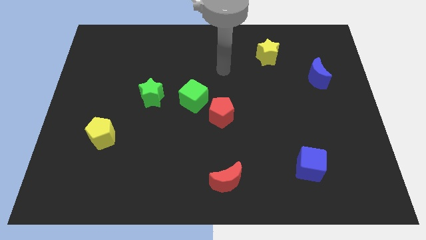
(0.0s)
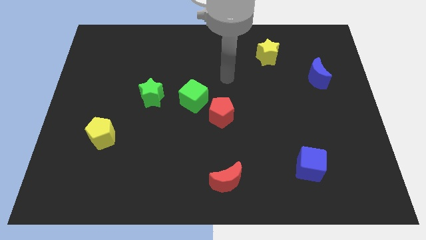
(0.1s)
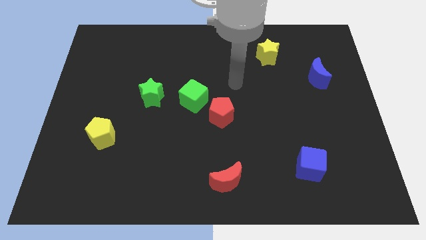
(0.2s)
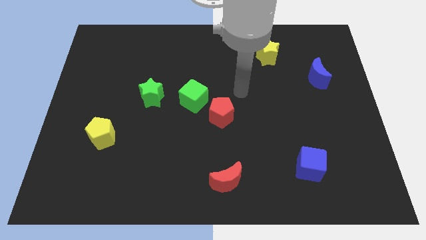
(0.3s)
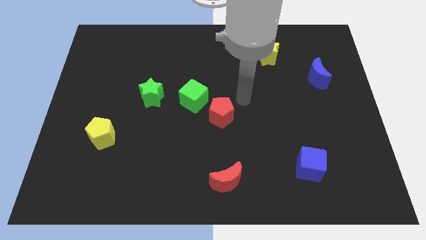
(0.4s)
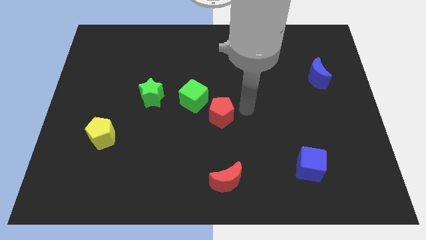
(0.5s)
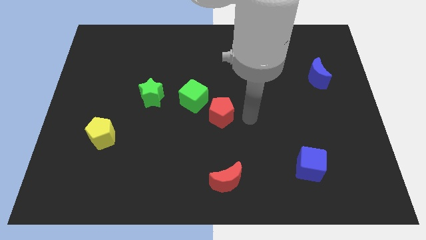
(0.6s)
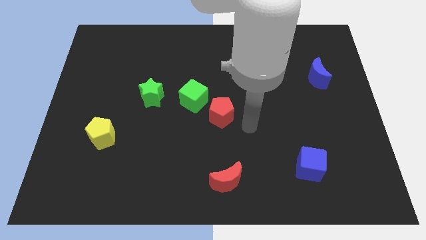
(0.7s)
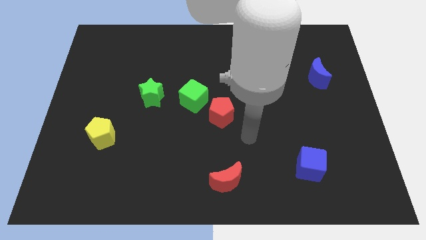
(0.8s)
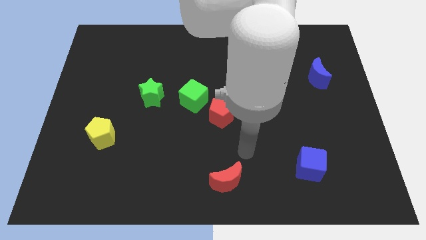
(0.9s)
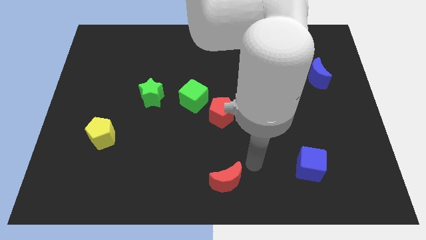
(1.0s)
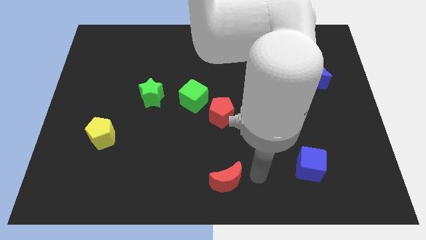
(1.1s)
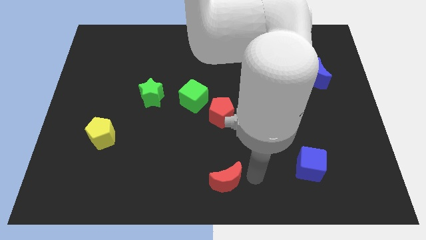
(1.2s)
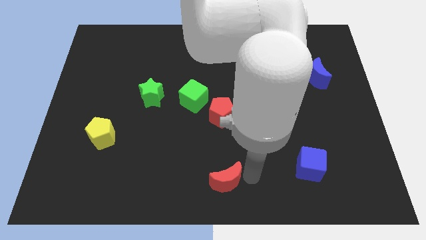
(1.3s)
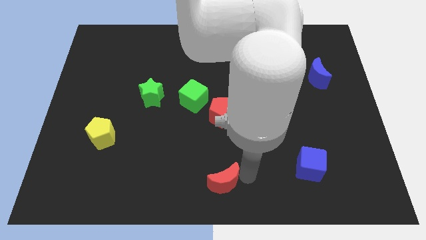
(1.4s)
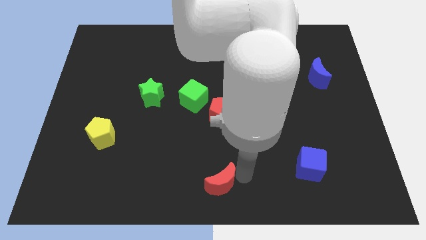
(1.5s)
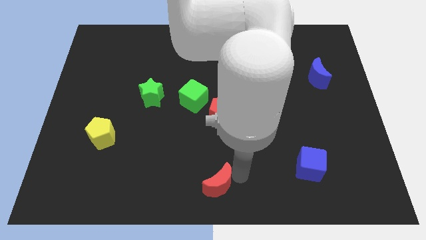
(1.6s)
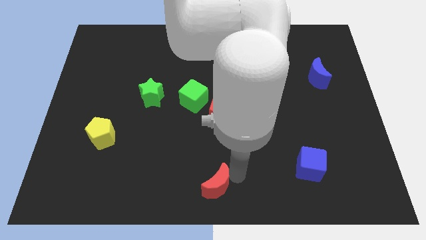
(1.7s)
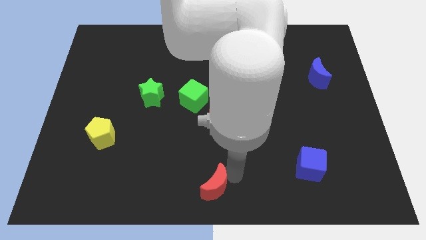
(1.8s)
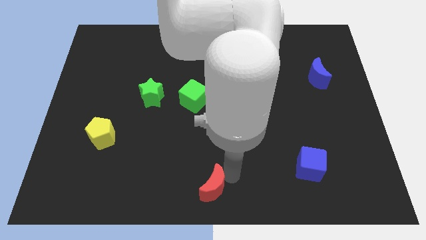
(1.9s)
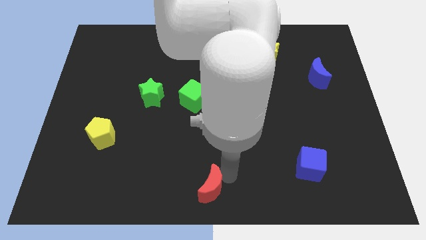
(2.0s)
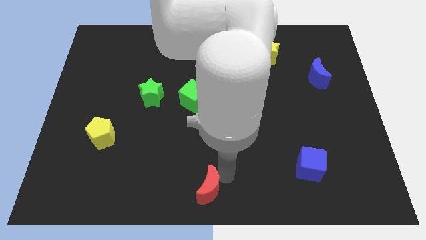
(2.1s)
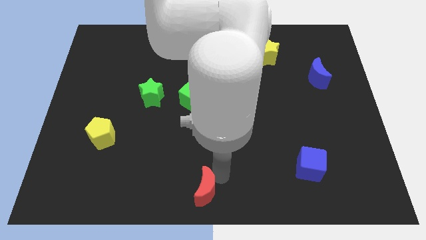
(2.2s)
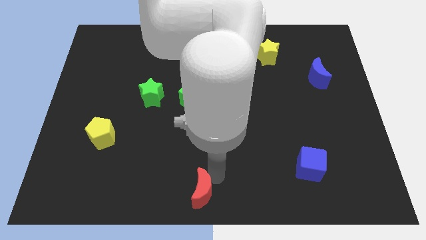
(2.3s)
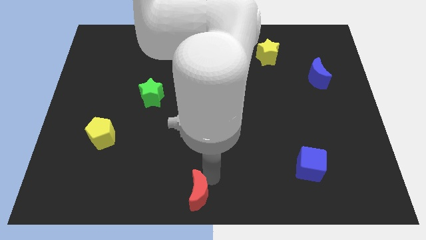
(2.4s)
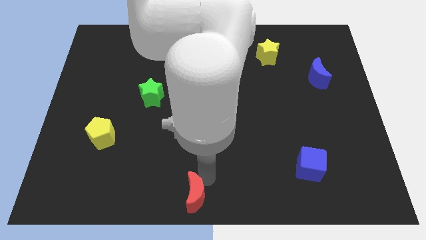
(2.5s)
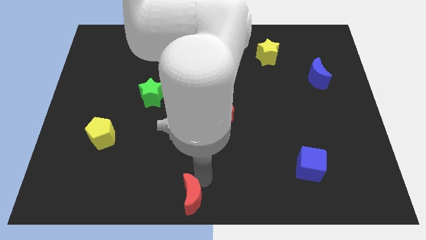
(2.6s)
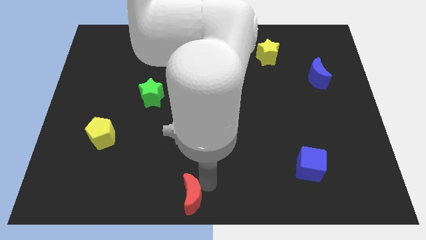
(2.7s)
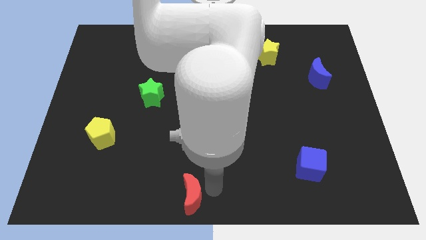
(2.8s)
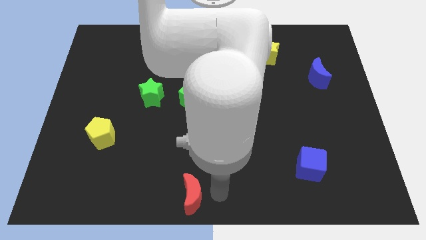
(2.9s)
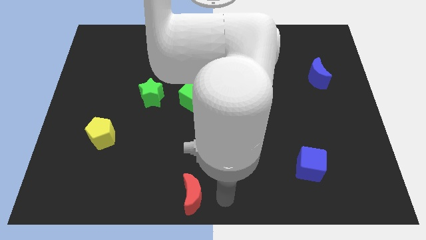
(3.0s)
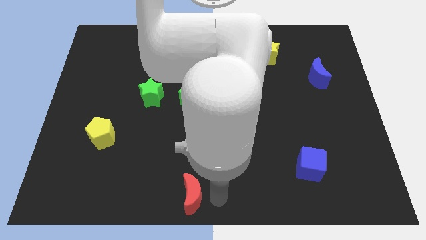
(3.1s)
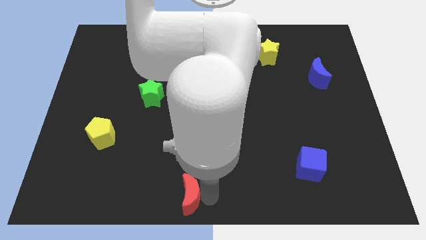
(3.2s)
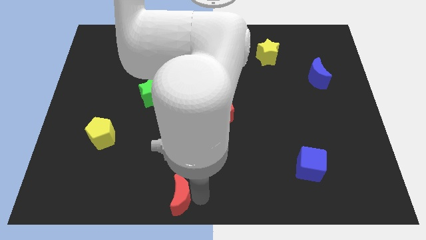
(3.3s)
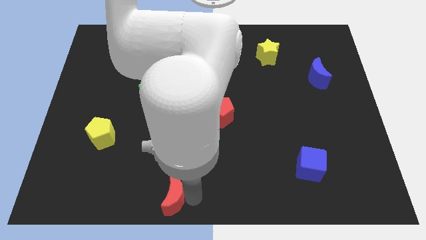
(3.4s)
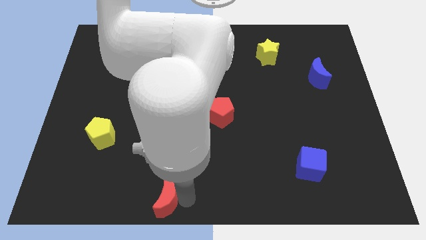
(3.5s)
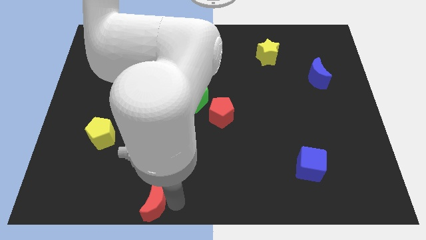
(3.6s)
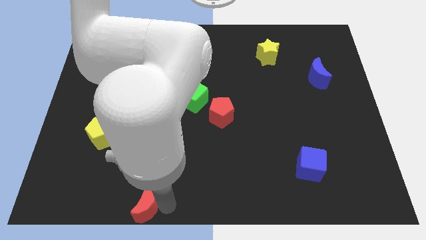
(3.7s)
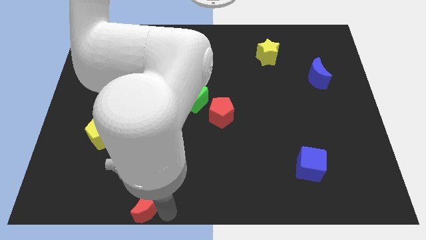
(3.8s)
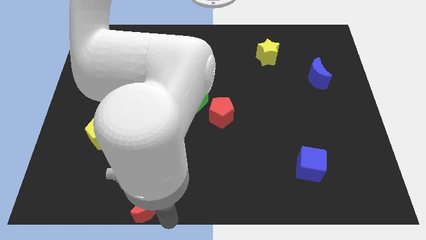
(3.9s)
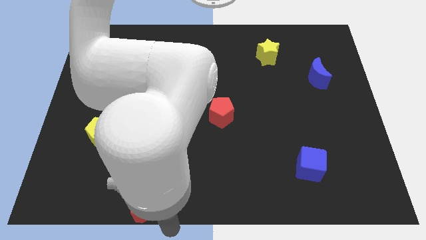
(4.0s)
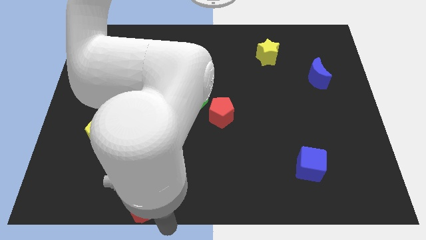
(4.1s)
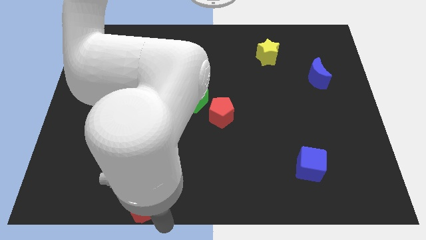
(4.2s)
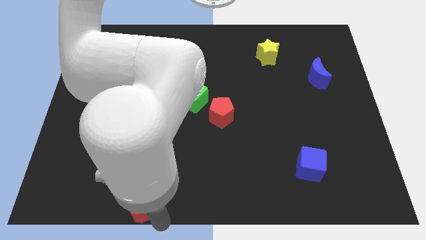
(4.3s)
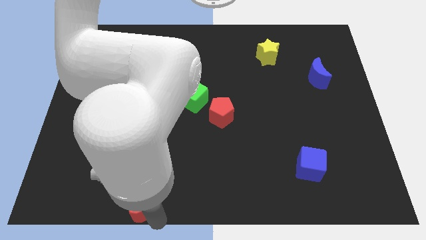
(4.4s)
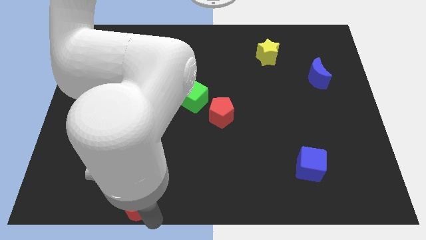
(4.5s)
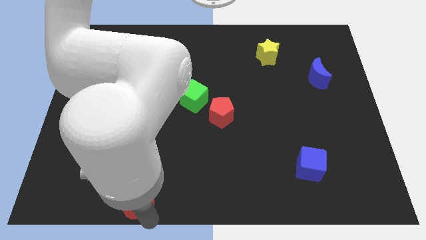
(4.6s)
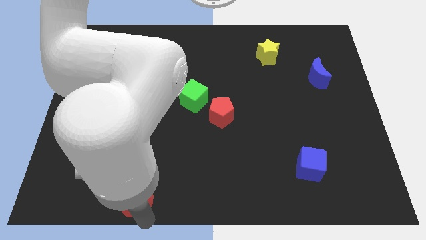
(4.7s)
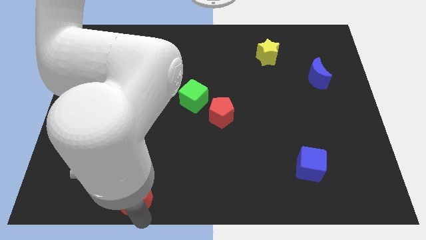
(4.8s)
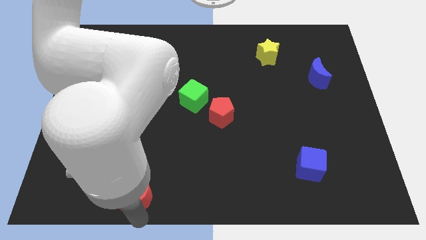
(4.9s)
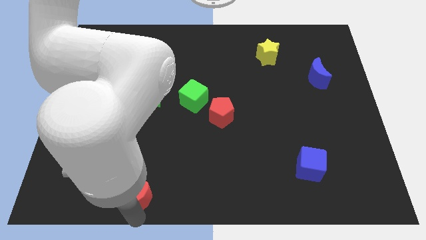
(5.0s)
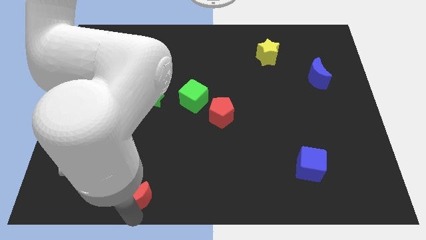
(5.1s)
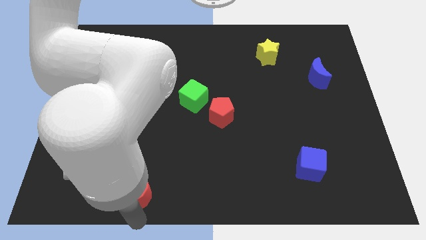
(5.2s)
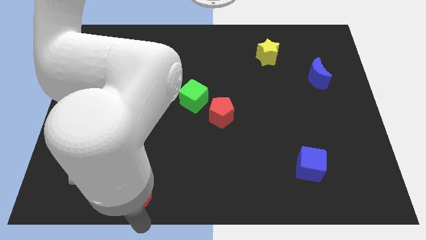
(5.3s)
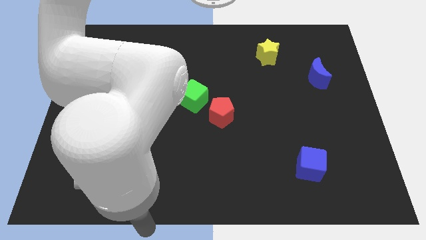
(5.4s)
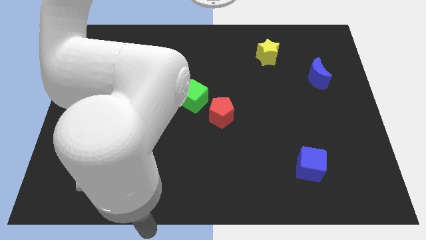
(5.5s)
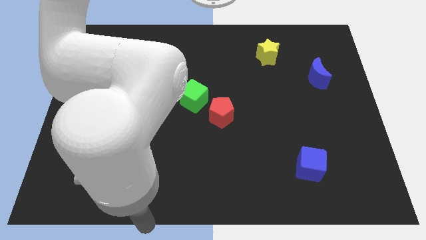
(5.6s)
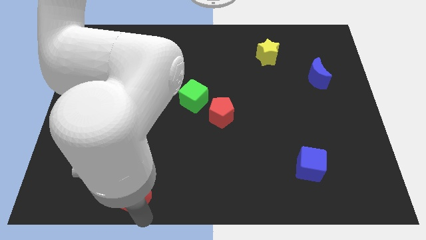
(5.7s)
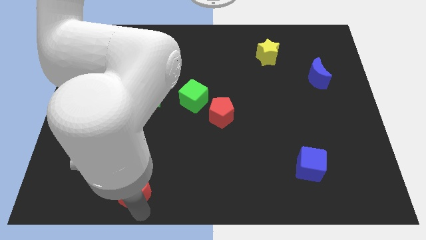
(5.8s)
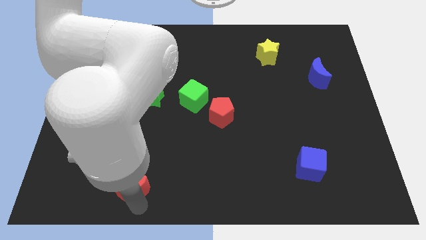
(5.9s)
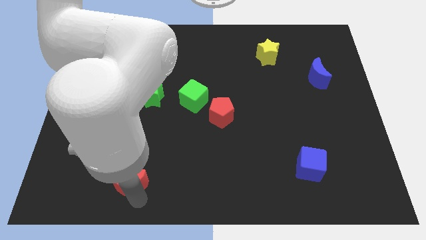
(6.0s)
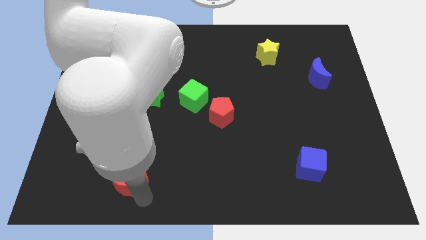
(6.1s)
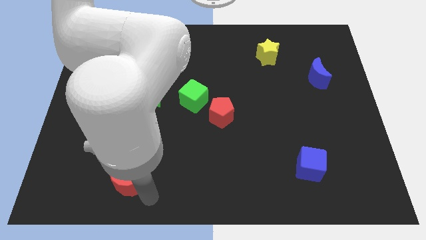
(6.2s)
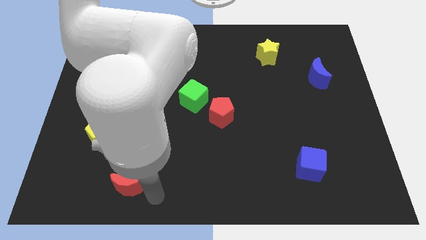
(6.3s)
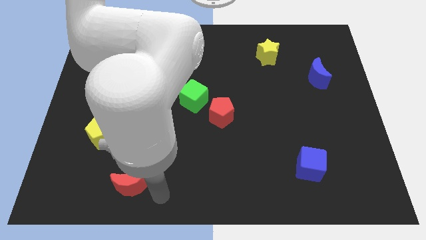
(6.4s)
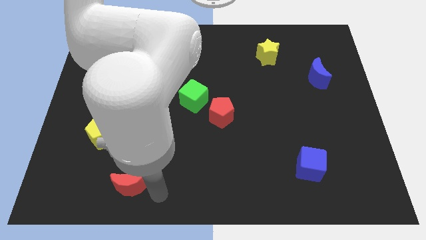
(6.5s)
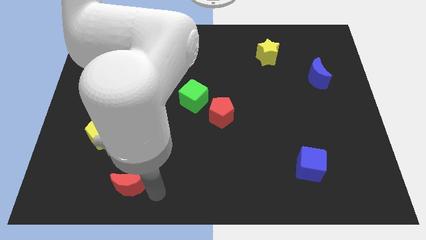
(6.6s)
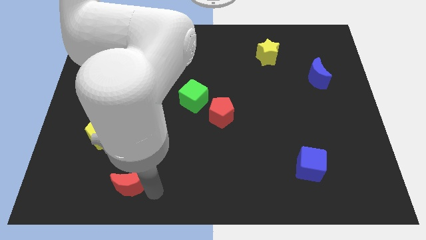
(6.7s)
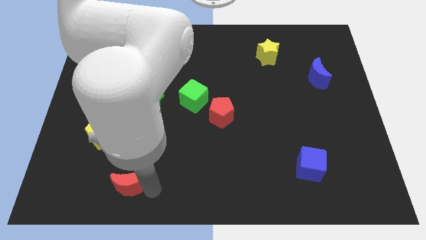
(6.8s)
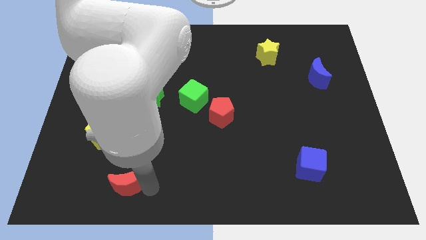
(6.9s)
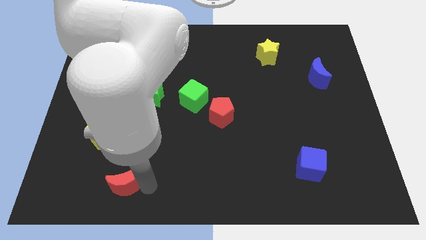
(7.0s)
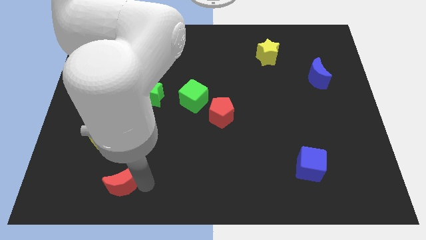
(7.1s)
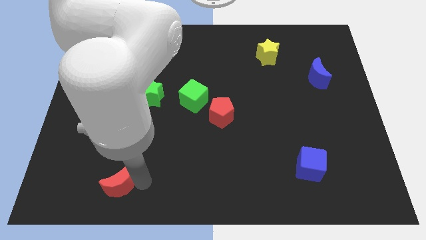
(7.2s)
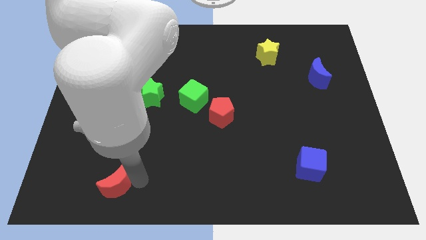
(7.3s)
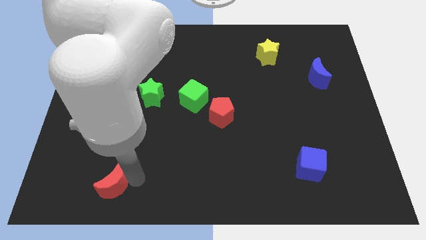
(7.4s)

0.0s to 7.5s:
put the red moon below the yellow pentagon
